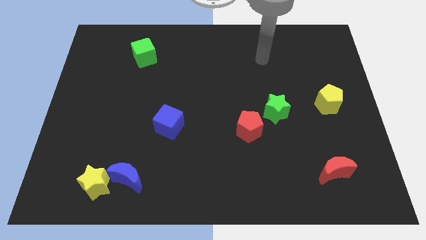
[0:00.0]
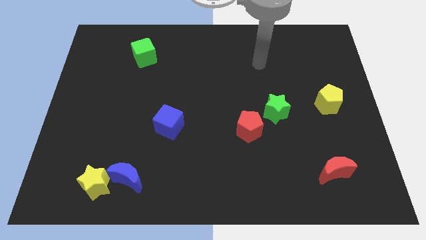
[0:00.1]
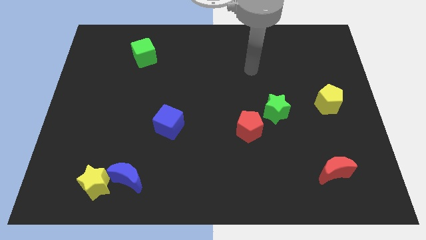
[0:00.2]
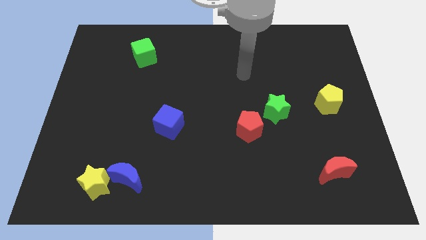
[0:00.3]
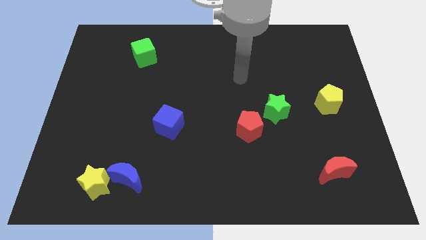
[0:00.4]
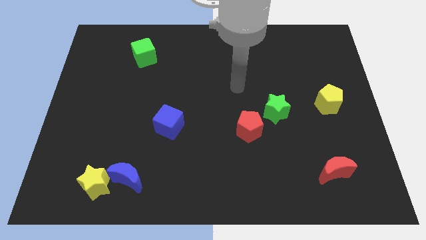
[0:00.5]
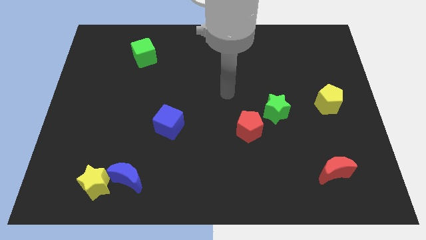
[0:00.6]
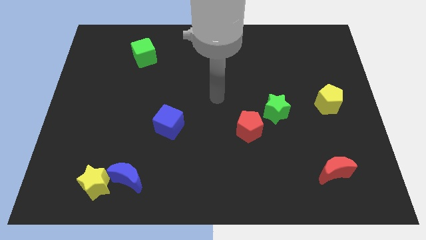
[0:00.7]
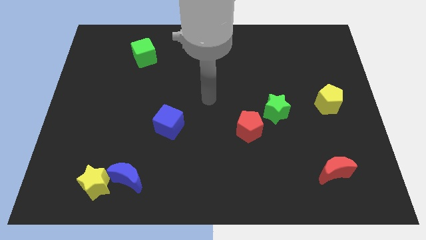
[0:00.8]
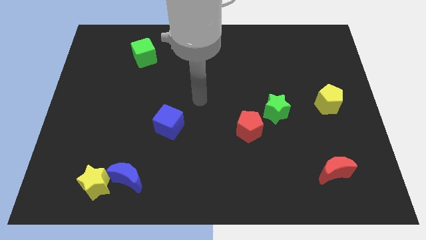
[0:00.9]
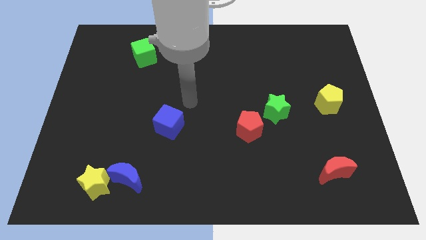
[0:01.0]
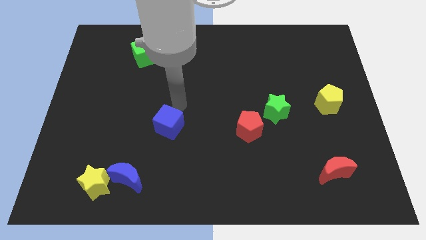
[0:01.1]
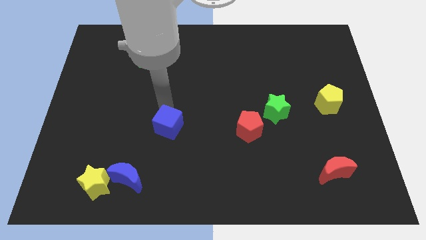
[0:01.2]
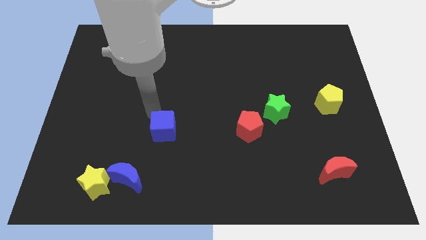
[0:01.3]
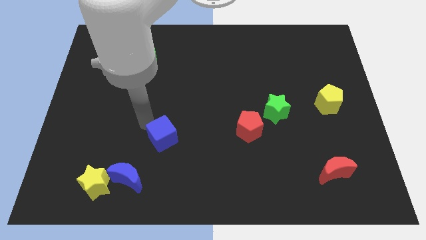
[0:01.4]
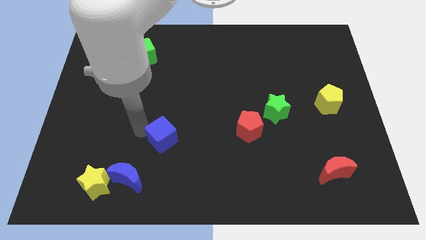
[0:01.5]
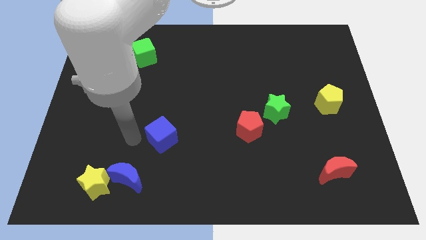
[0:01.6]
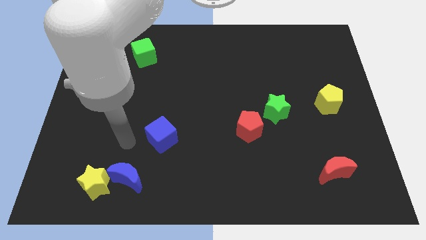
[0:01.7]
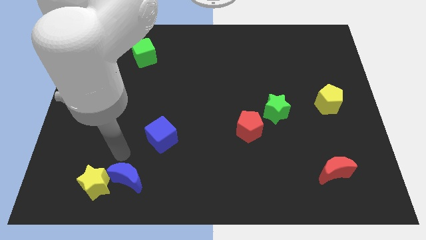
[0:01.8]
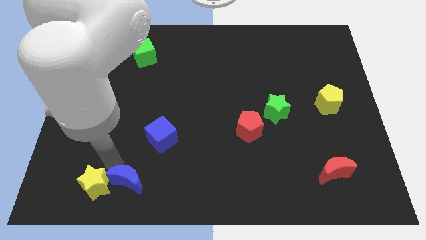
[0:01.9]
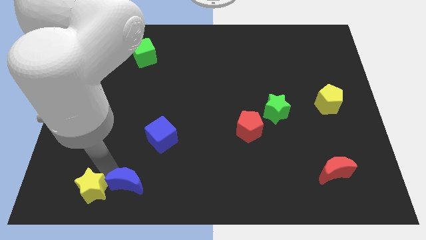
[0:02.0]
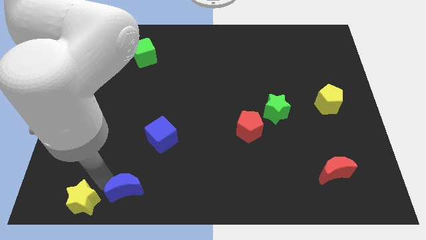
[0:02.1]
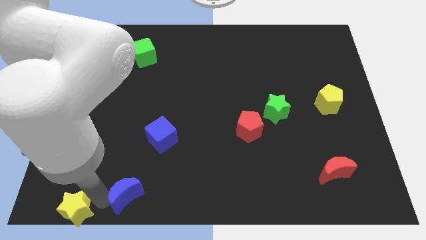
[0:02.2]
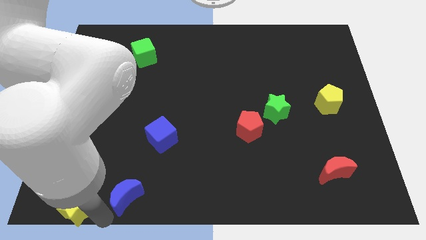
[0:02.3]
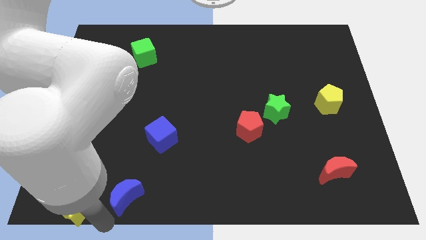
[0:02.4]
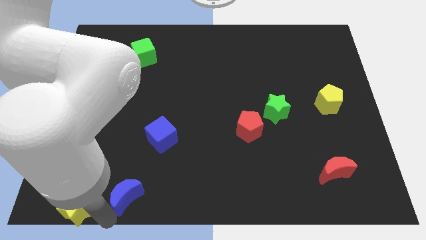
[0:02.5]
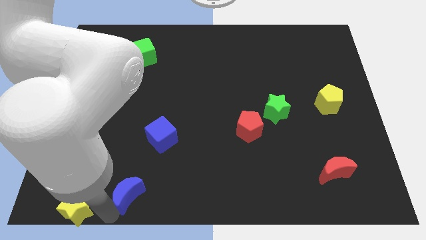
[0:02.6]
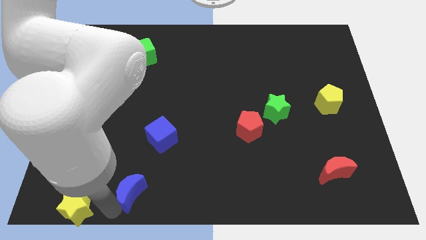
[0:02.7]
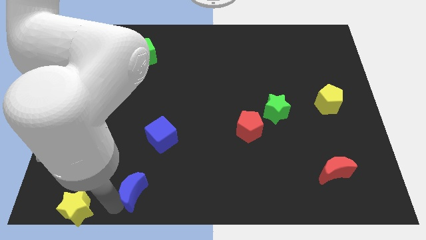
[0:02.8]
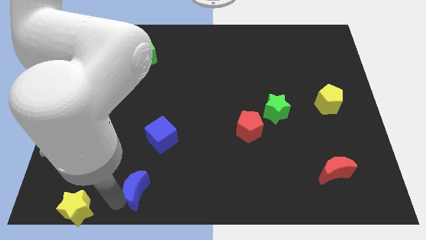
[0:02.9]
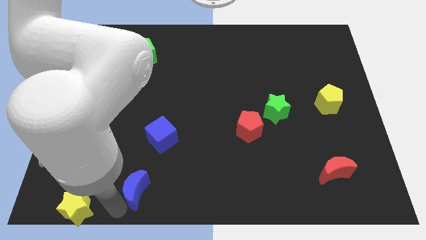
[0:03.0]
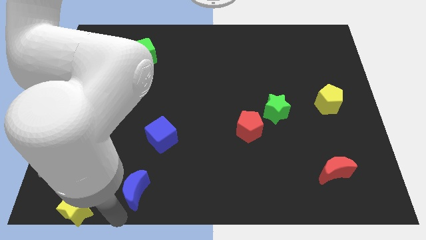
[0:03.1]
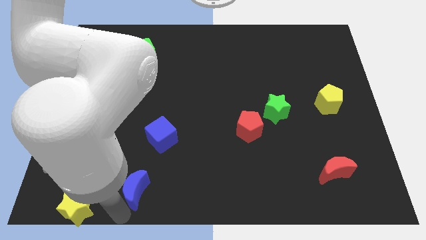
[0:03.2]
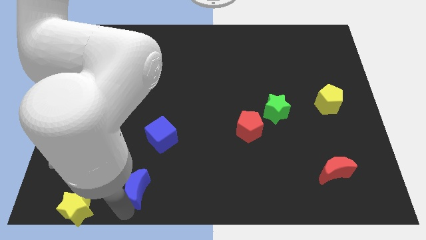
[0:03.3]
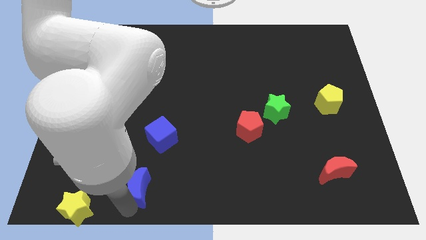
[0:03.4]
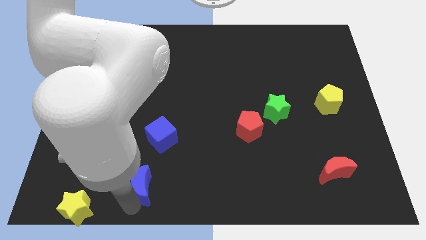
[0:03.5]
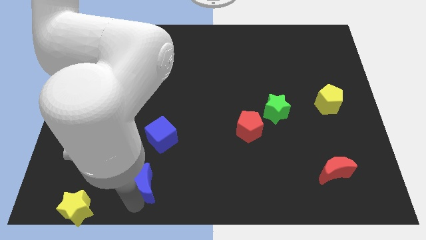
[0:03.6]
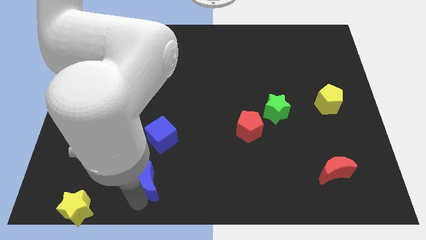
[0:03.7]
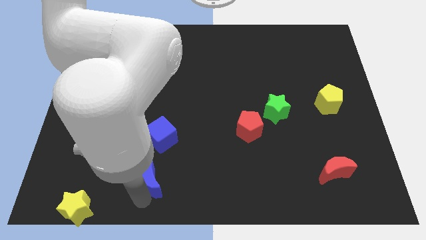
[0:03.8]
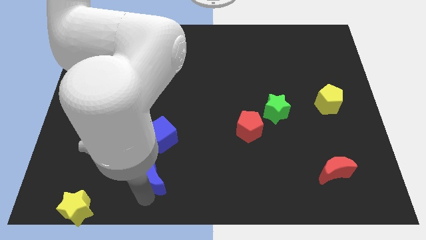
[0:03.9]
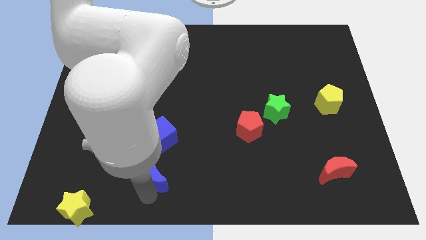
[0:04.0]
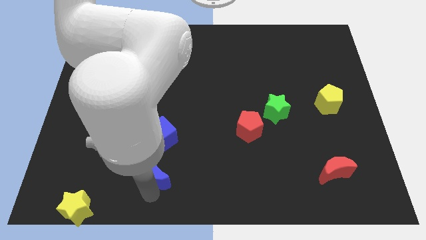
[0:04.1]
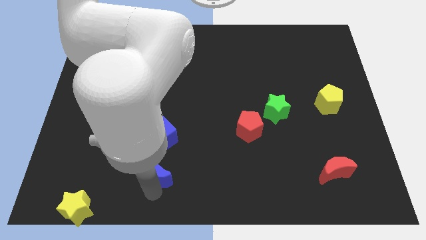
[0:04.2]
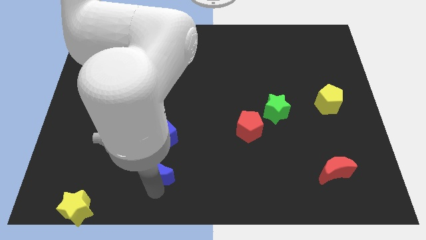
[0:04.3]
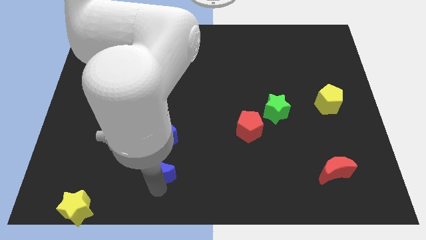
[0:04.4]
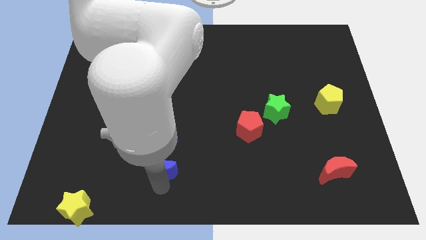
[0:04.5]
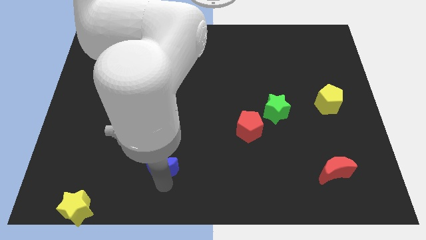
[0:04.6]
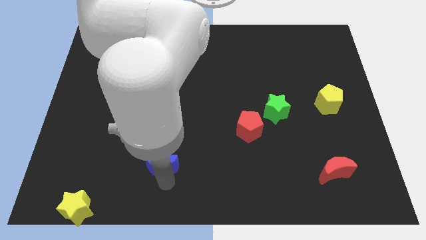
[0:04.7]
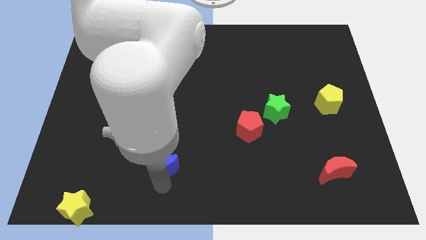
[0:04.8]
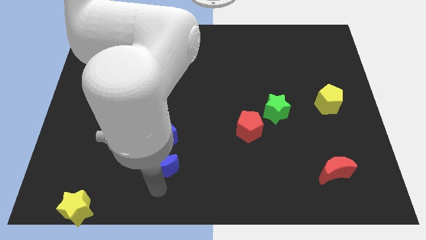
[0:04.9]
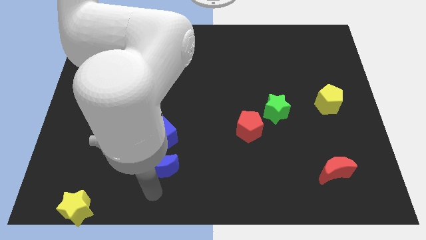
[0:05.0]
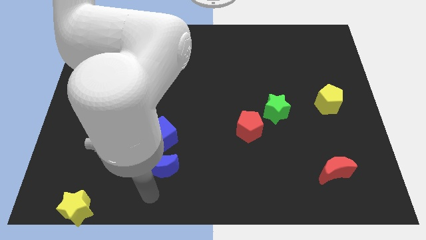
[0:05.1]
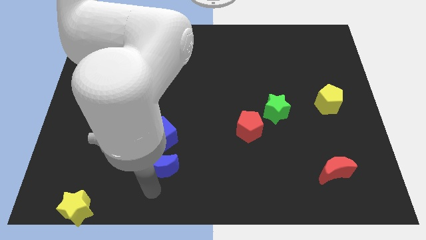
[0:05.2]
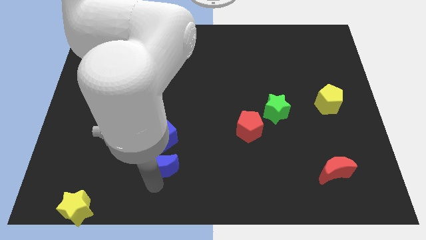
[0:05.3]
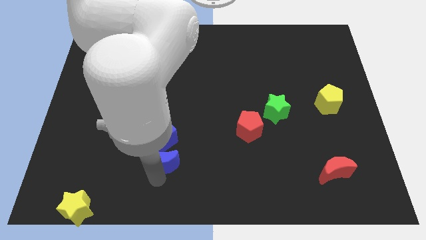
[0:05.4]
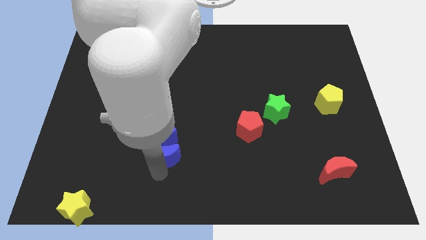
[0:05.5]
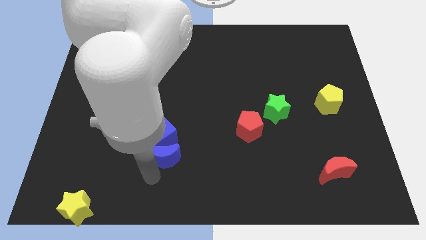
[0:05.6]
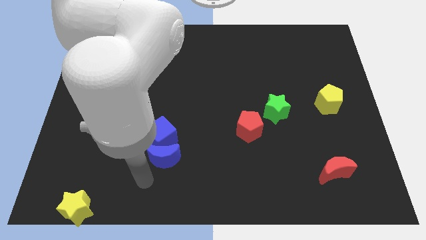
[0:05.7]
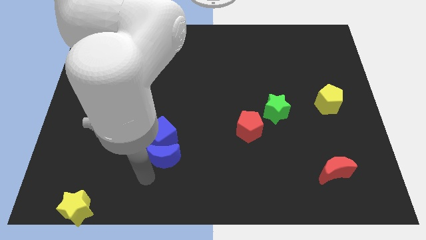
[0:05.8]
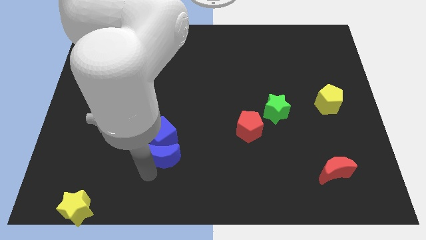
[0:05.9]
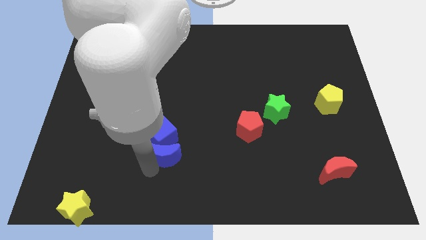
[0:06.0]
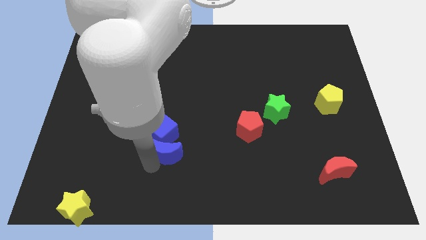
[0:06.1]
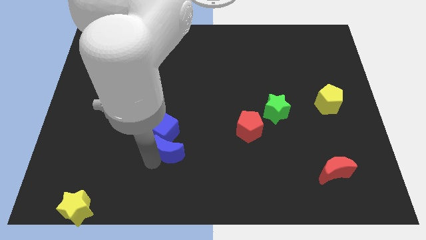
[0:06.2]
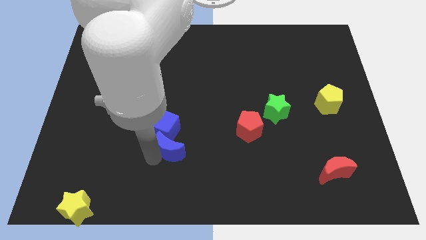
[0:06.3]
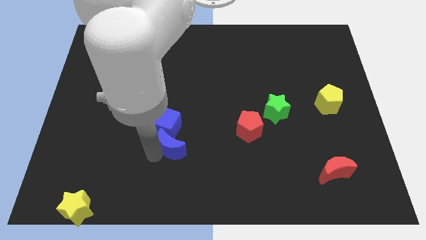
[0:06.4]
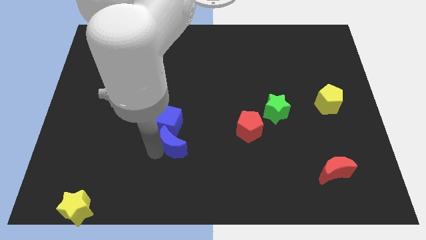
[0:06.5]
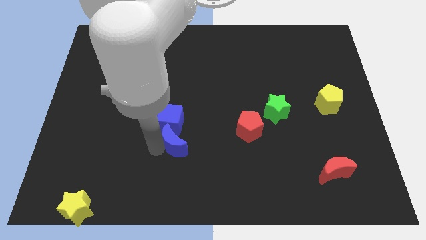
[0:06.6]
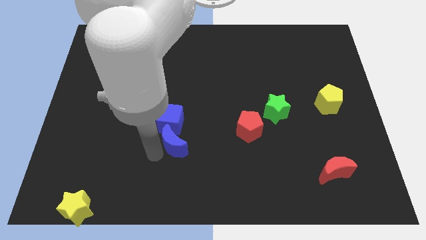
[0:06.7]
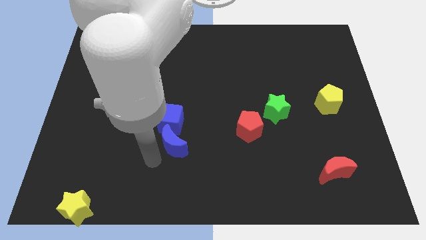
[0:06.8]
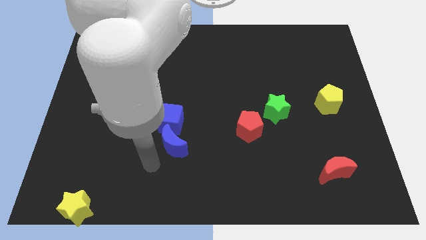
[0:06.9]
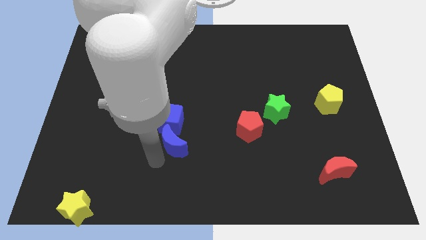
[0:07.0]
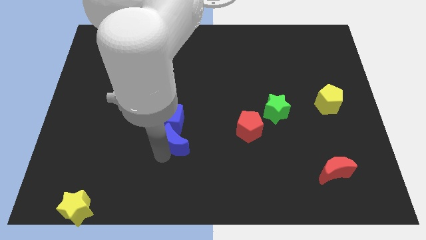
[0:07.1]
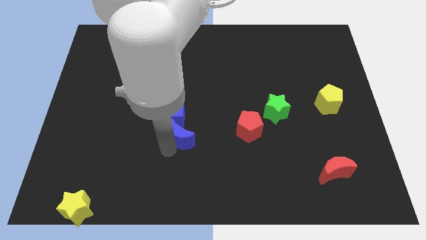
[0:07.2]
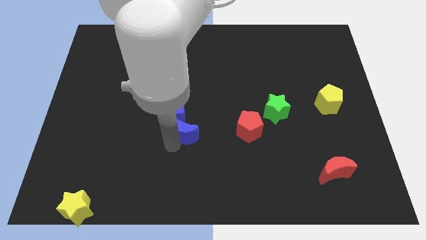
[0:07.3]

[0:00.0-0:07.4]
push the blue moon to the center

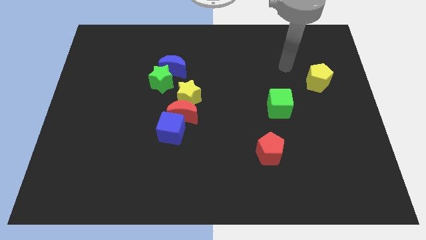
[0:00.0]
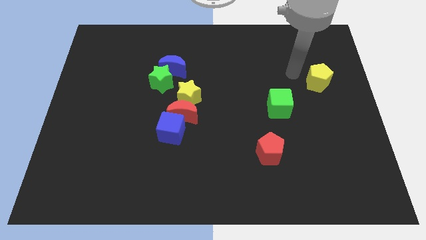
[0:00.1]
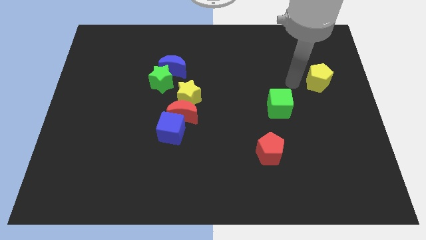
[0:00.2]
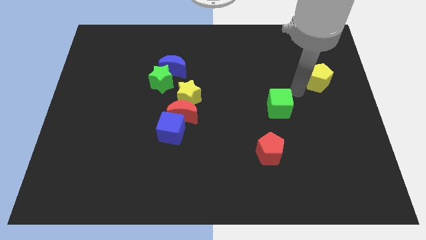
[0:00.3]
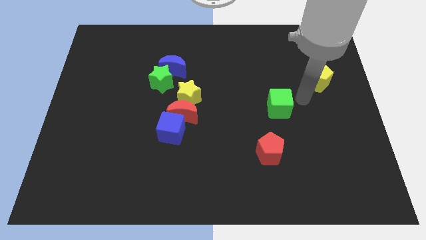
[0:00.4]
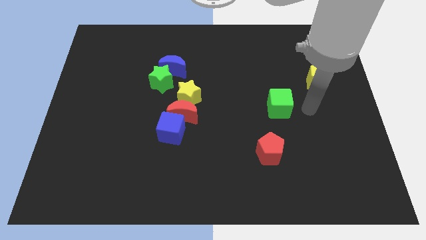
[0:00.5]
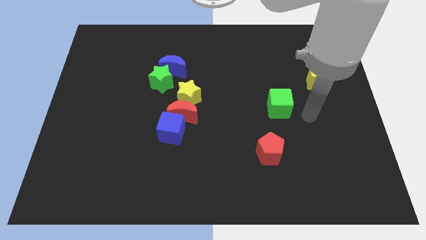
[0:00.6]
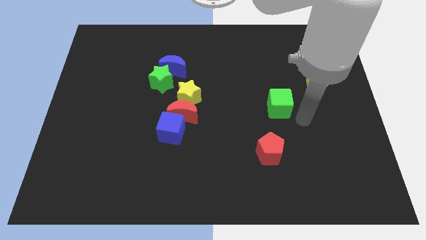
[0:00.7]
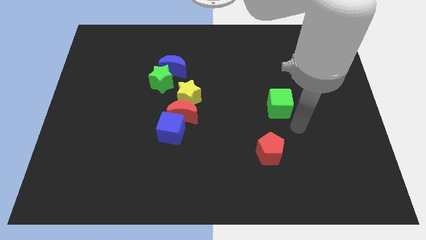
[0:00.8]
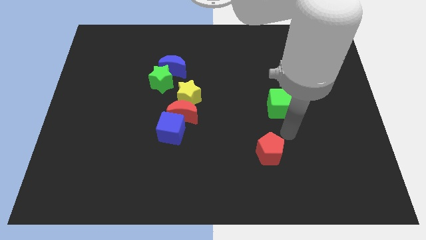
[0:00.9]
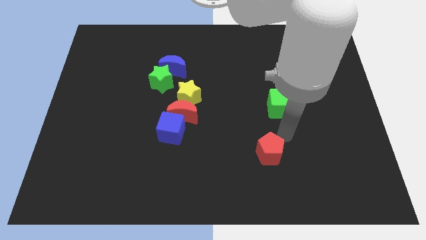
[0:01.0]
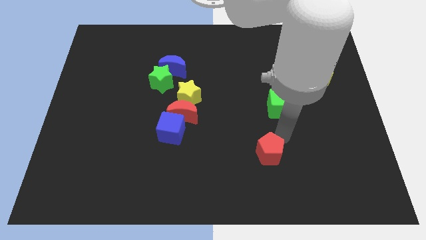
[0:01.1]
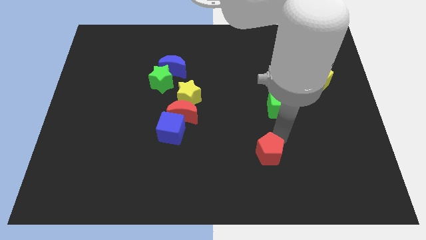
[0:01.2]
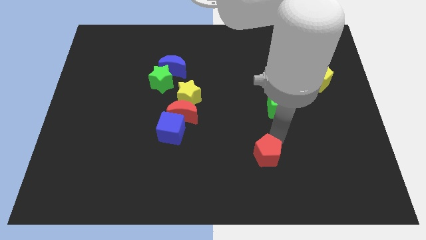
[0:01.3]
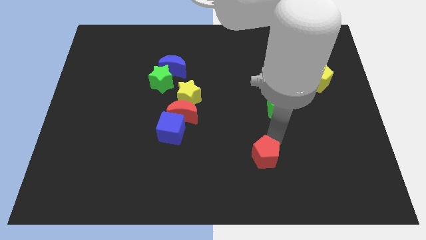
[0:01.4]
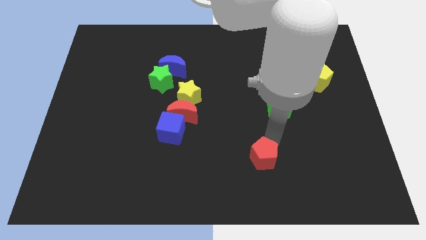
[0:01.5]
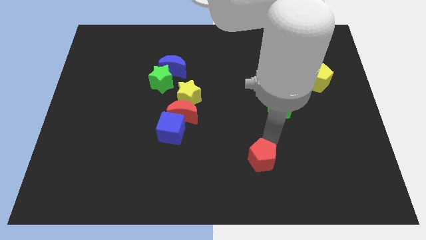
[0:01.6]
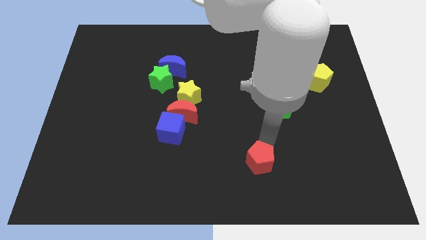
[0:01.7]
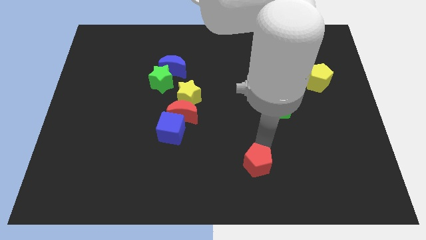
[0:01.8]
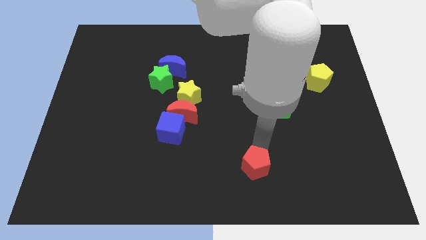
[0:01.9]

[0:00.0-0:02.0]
move the red pentagon to the bottom
